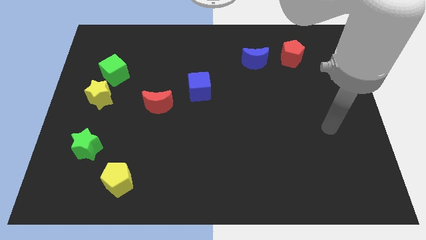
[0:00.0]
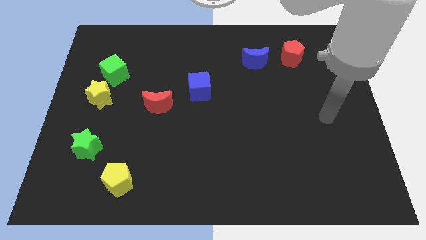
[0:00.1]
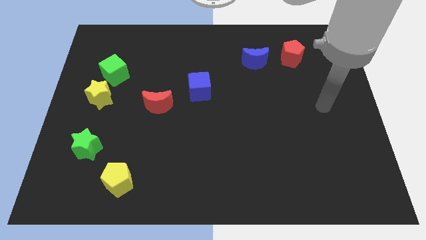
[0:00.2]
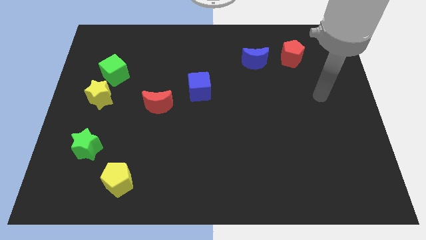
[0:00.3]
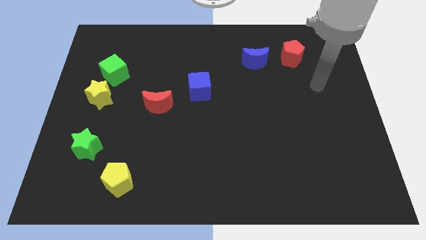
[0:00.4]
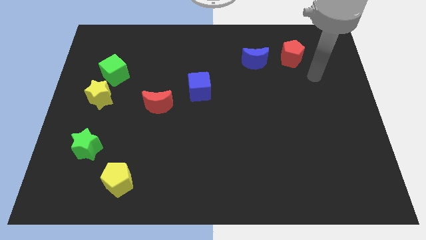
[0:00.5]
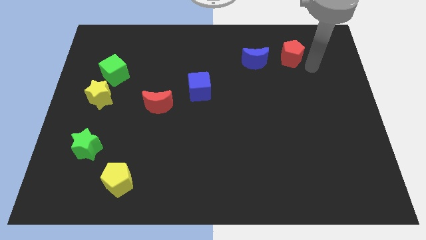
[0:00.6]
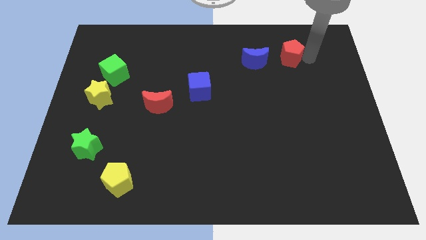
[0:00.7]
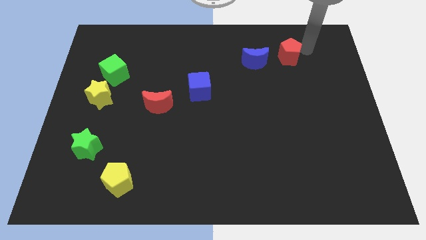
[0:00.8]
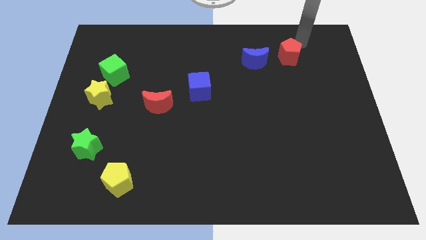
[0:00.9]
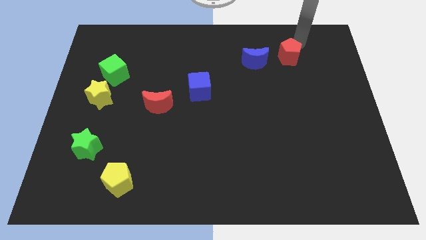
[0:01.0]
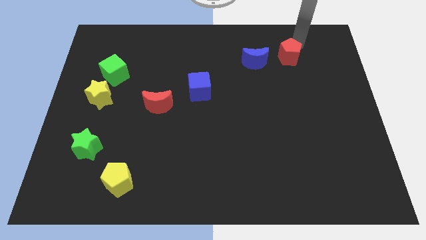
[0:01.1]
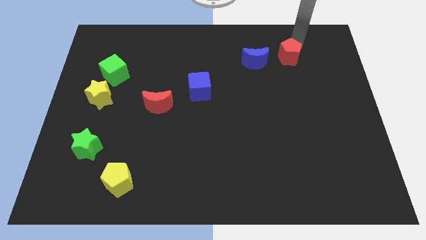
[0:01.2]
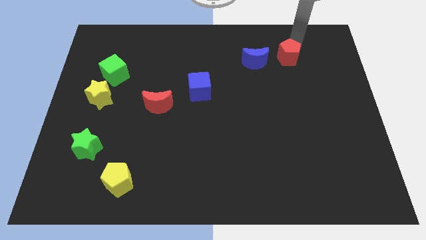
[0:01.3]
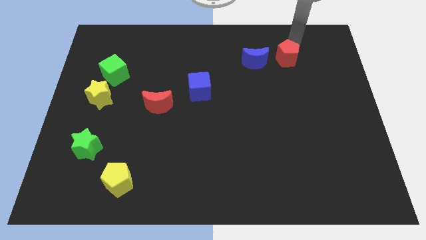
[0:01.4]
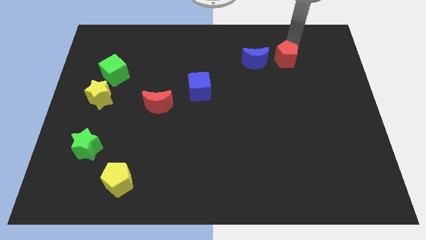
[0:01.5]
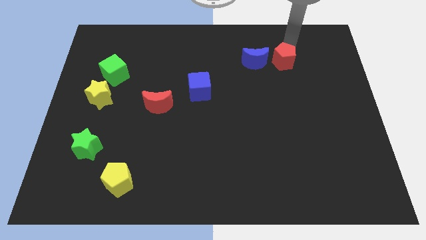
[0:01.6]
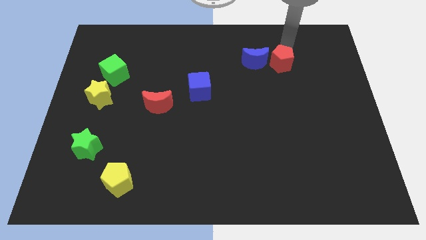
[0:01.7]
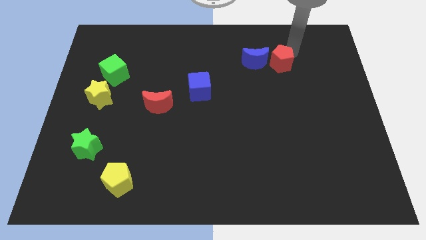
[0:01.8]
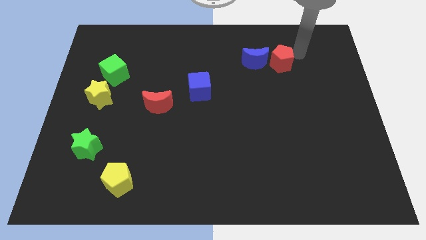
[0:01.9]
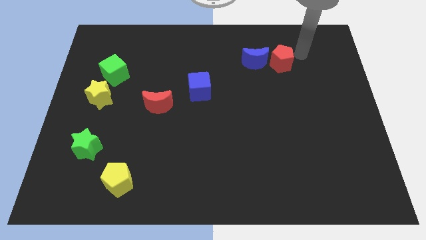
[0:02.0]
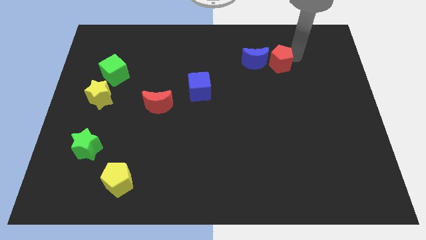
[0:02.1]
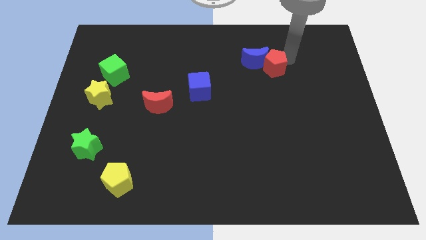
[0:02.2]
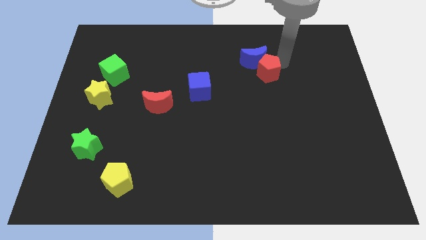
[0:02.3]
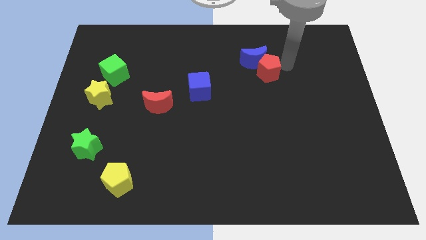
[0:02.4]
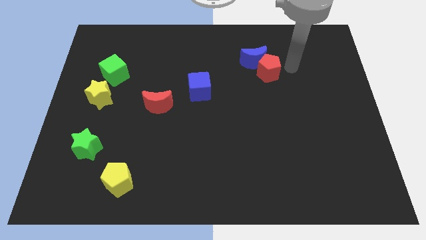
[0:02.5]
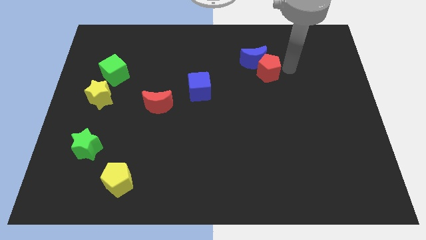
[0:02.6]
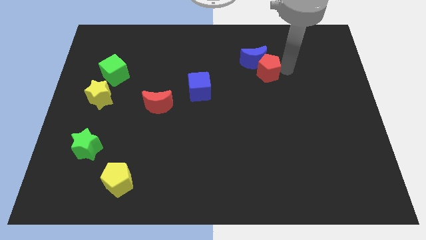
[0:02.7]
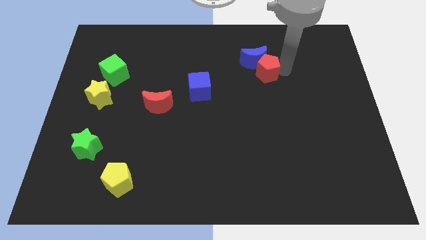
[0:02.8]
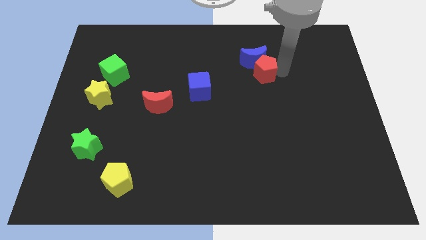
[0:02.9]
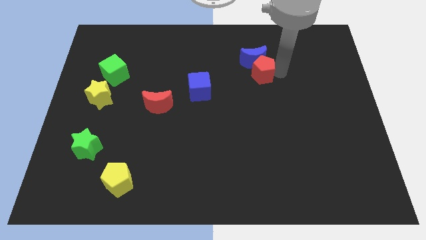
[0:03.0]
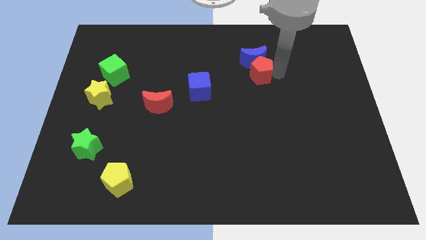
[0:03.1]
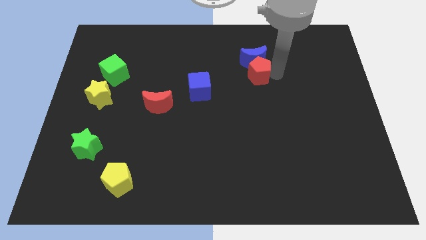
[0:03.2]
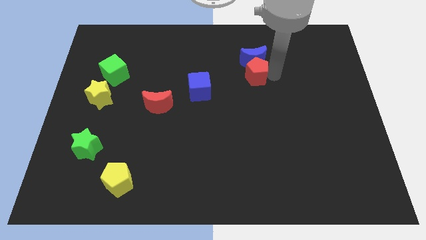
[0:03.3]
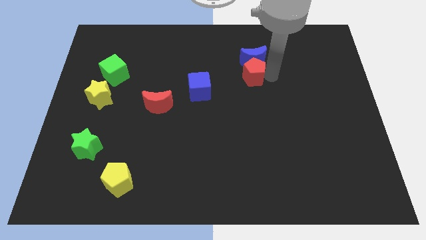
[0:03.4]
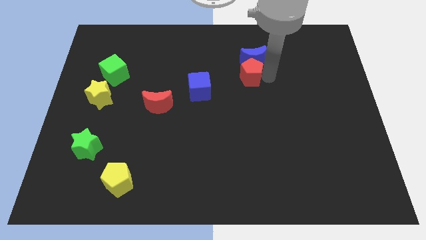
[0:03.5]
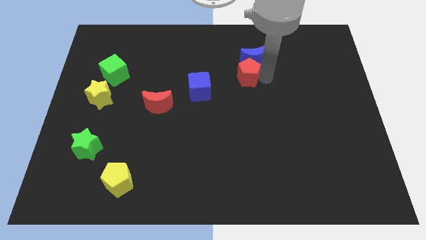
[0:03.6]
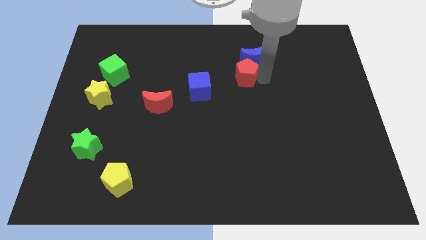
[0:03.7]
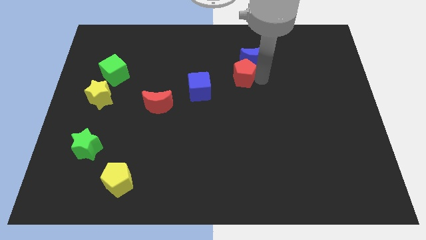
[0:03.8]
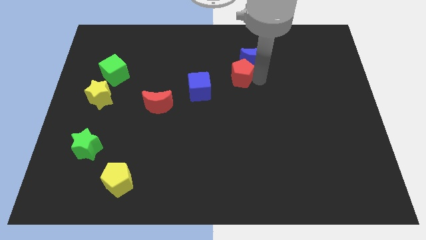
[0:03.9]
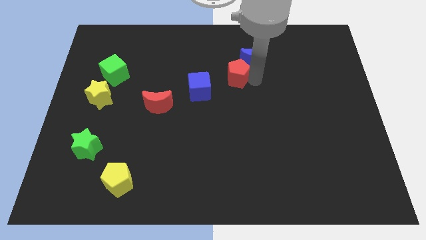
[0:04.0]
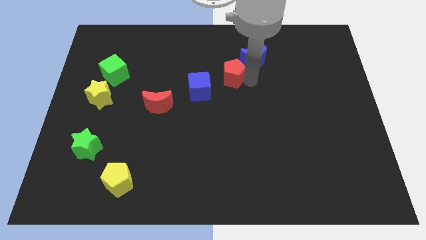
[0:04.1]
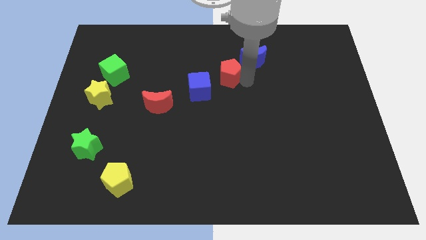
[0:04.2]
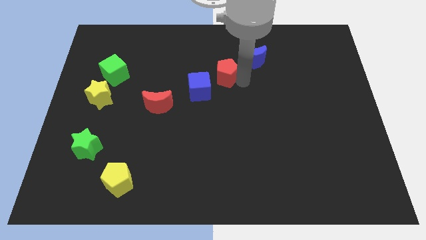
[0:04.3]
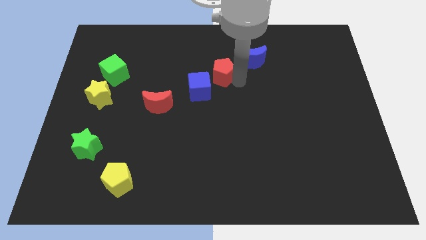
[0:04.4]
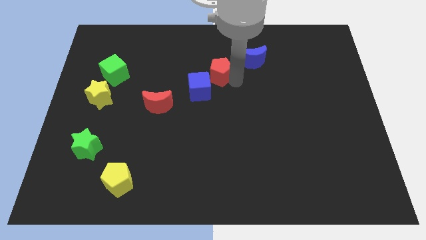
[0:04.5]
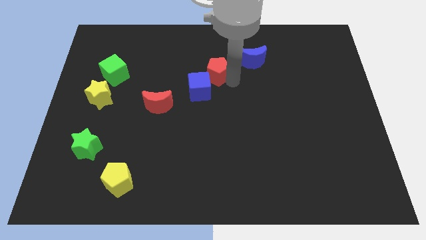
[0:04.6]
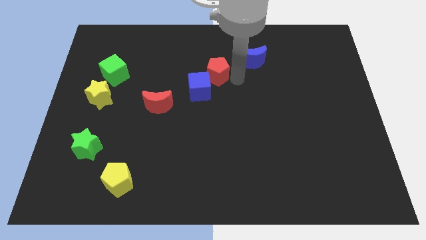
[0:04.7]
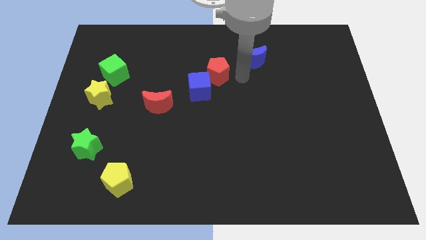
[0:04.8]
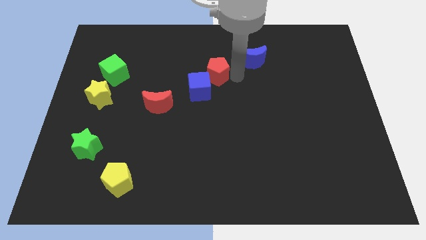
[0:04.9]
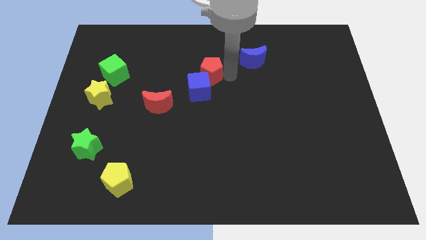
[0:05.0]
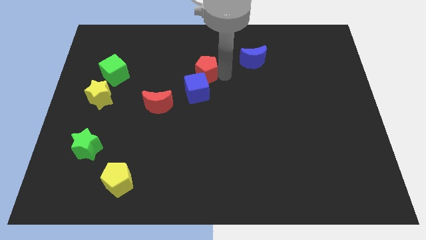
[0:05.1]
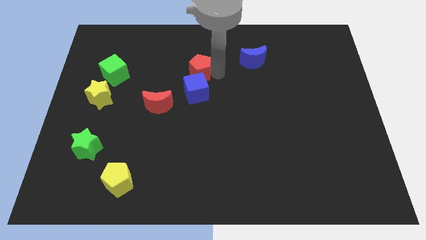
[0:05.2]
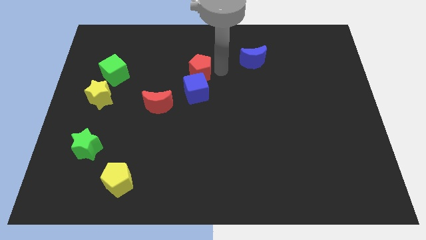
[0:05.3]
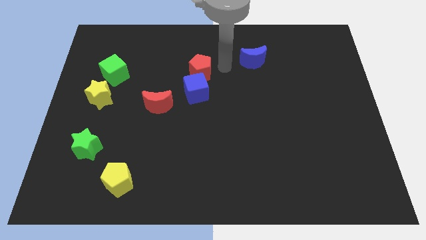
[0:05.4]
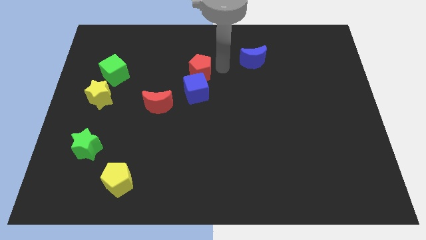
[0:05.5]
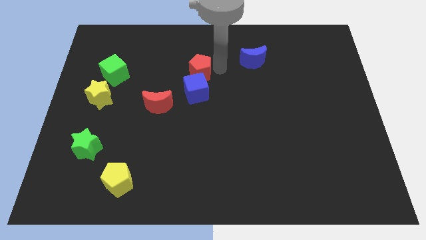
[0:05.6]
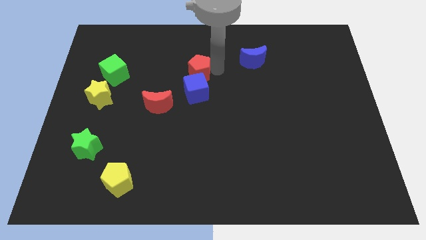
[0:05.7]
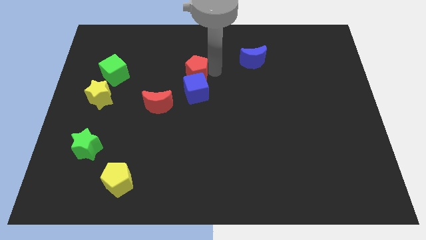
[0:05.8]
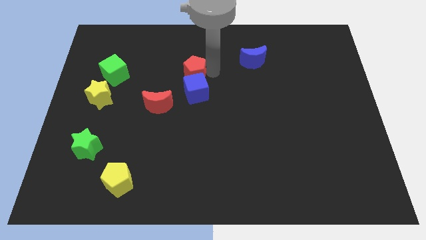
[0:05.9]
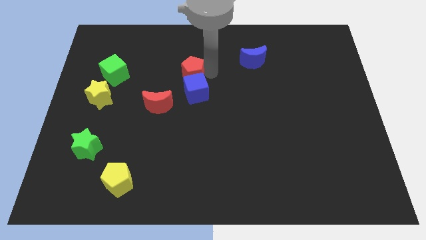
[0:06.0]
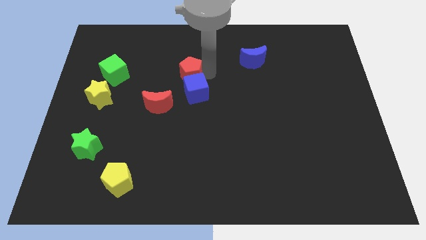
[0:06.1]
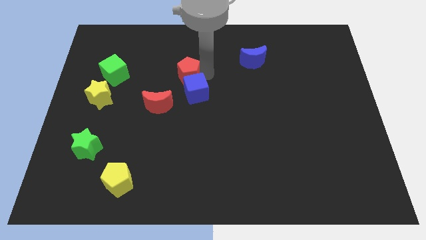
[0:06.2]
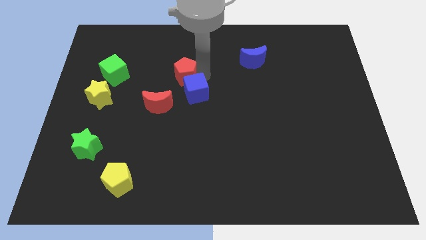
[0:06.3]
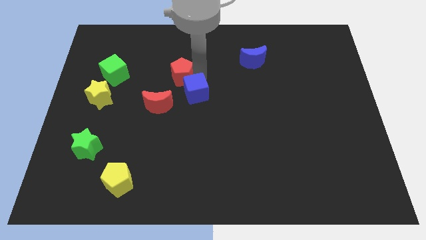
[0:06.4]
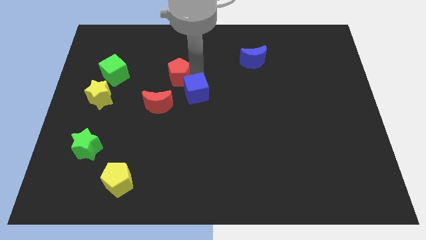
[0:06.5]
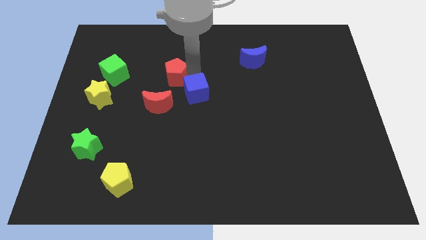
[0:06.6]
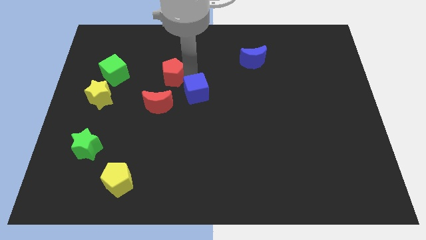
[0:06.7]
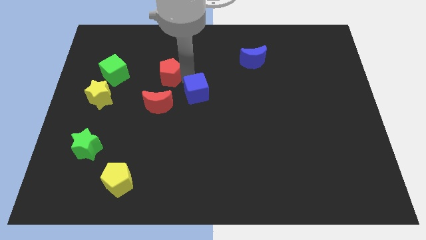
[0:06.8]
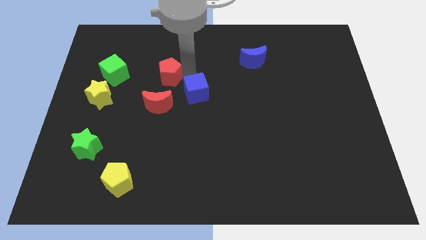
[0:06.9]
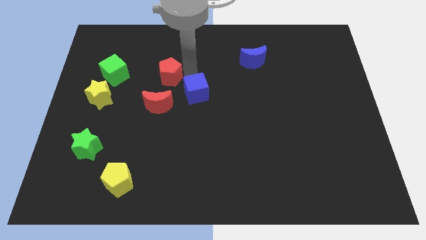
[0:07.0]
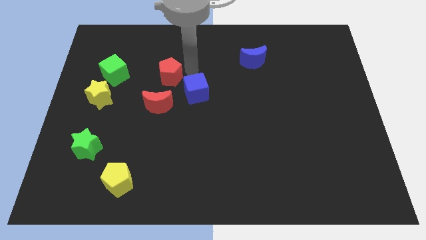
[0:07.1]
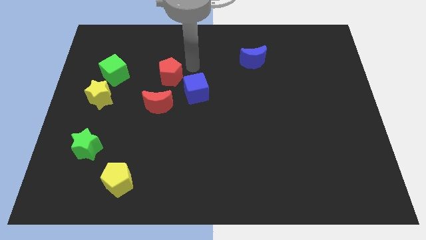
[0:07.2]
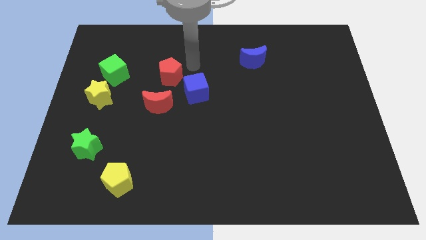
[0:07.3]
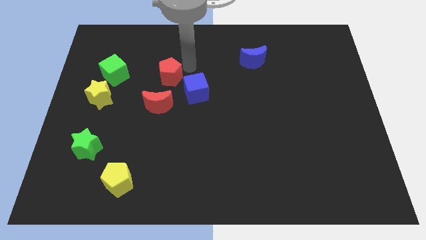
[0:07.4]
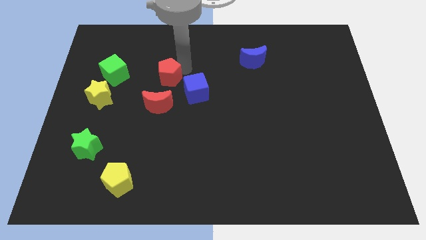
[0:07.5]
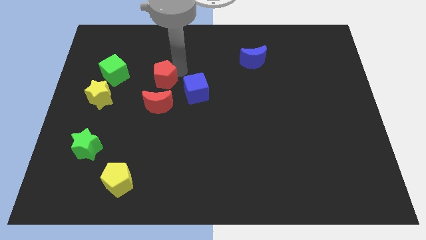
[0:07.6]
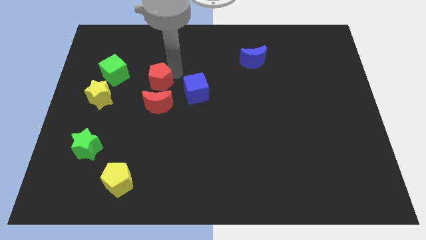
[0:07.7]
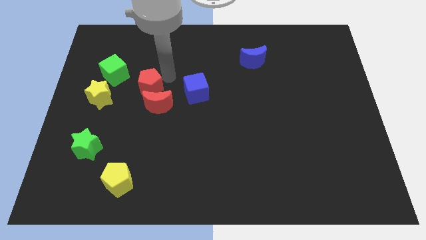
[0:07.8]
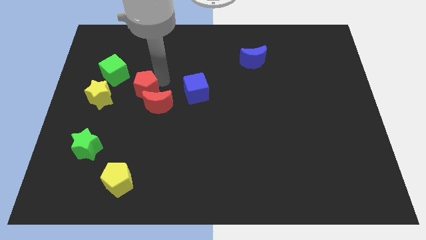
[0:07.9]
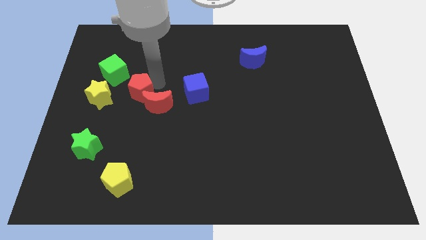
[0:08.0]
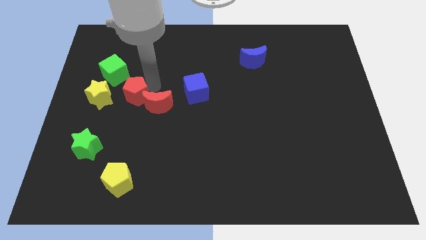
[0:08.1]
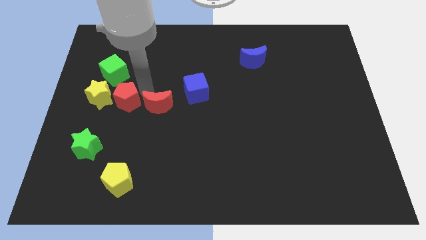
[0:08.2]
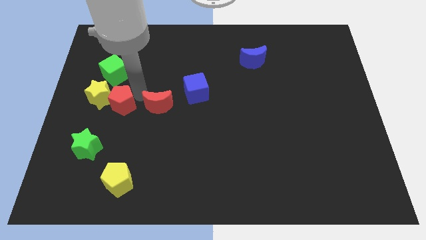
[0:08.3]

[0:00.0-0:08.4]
slide the red pentagon next to the yellow star
